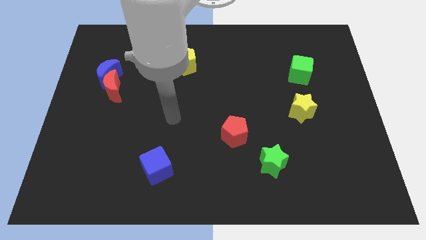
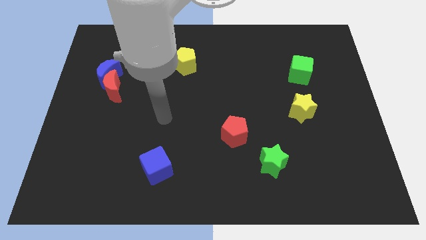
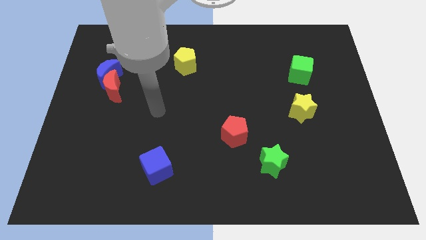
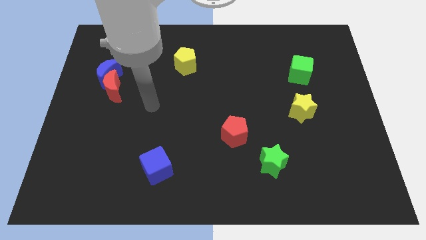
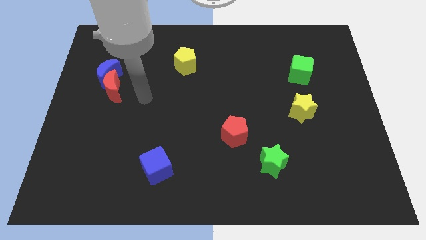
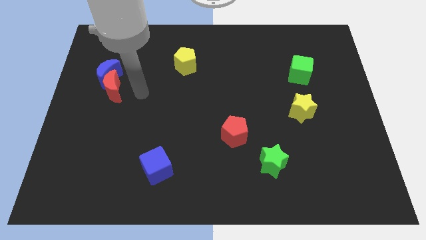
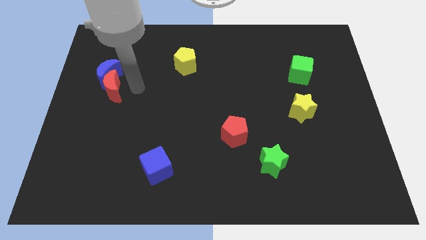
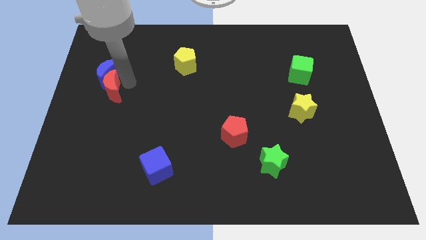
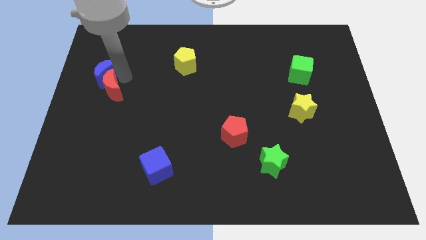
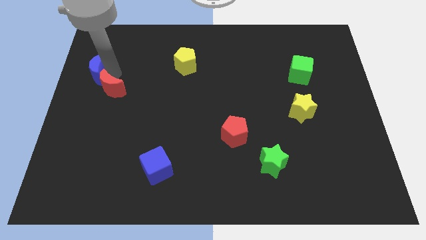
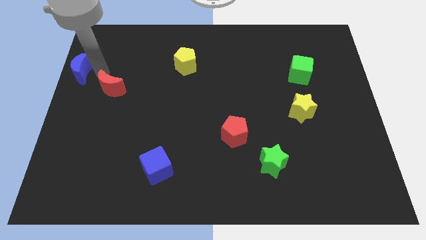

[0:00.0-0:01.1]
separate the red moon from the blue moon

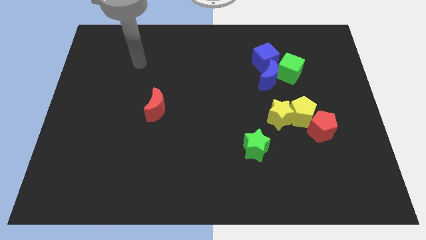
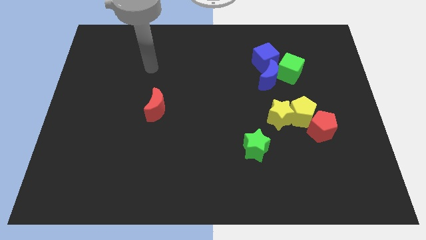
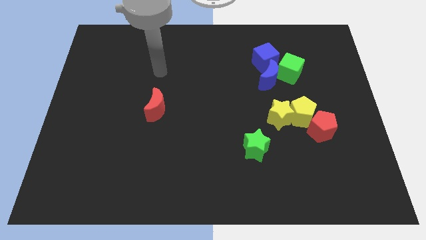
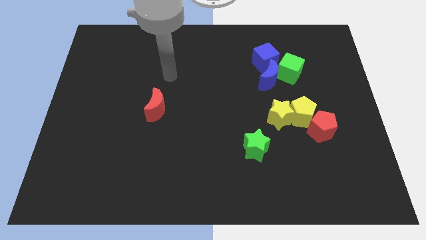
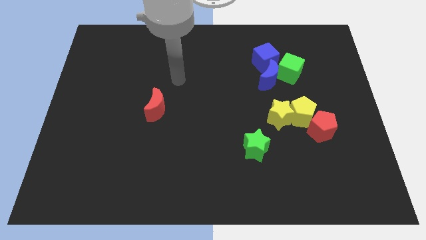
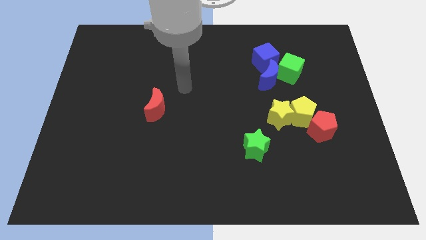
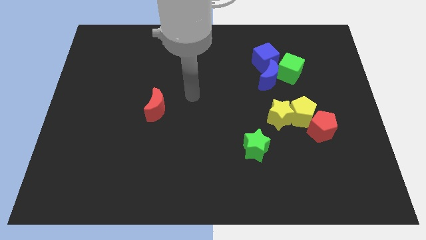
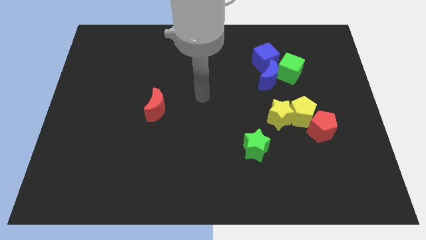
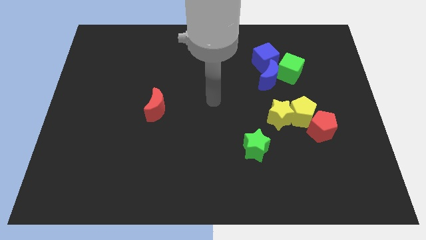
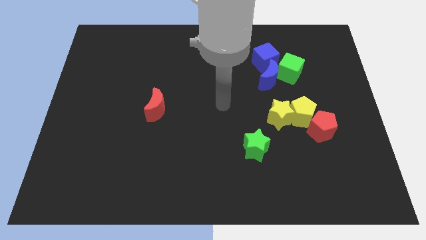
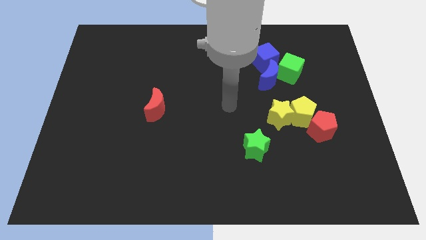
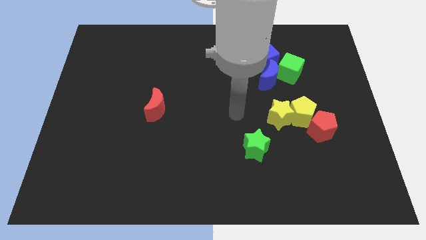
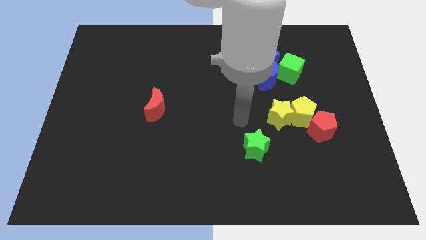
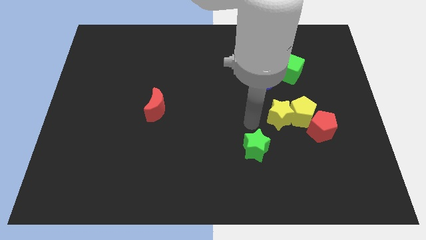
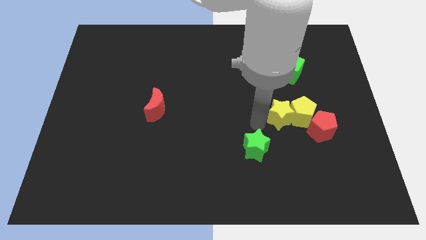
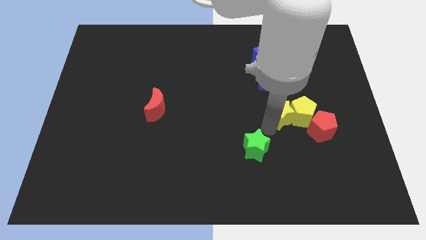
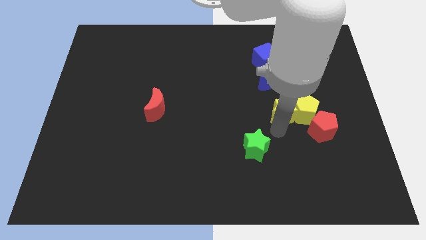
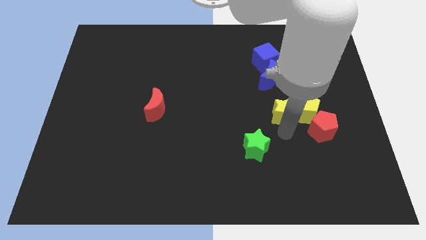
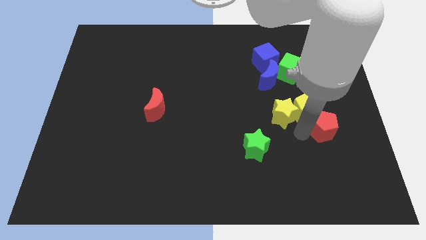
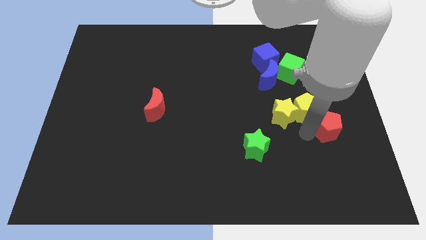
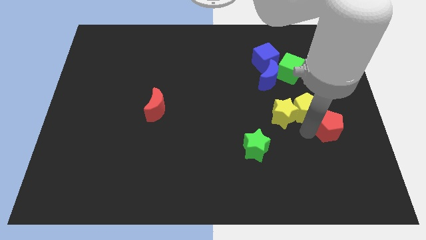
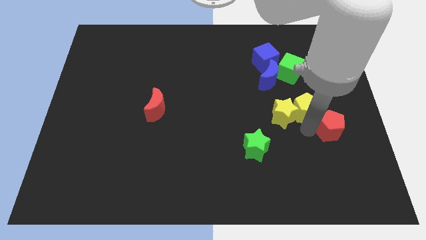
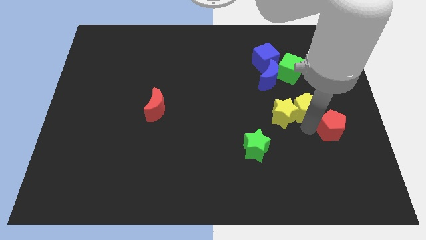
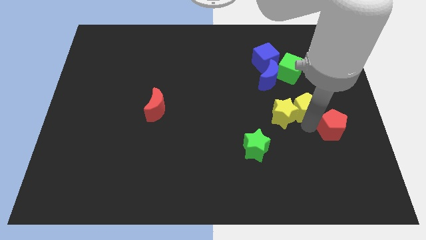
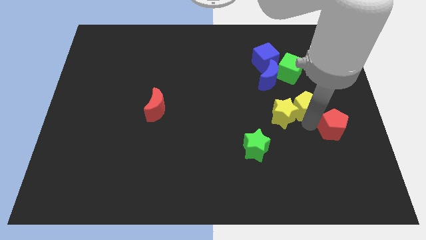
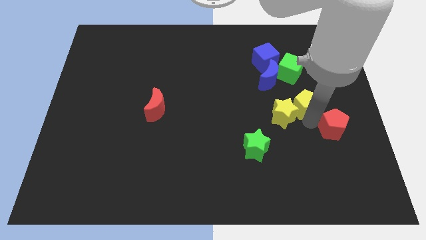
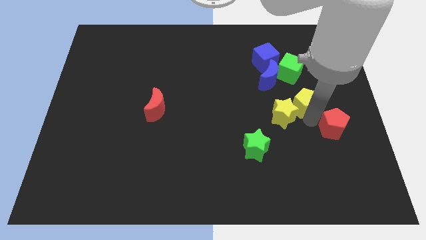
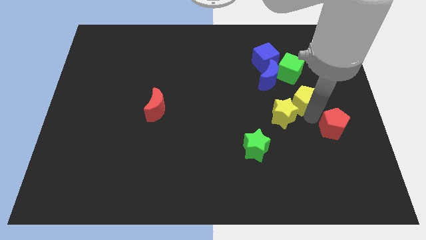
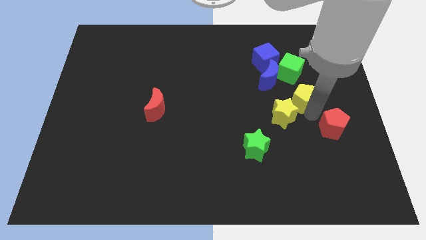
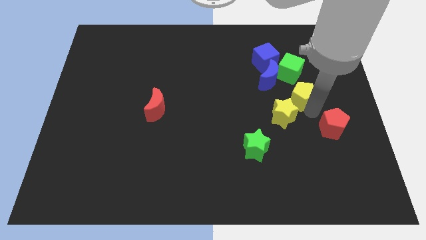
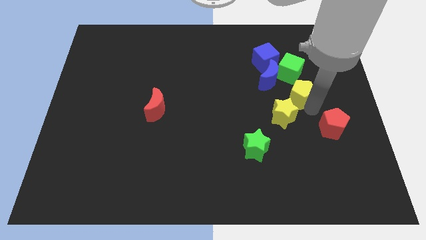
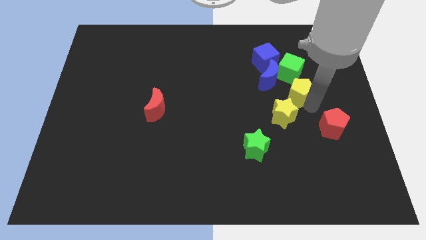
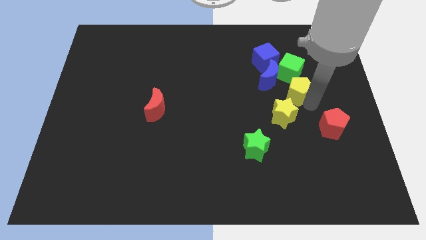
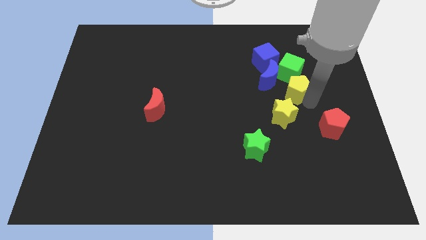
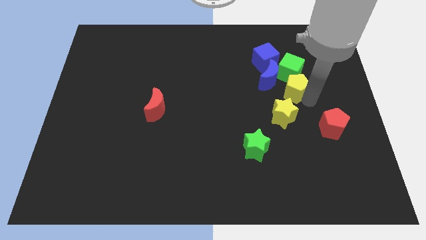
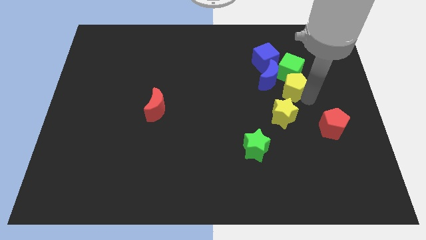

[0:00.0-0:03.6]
move the yellow pentagon away from the yellow star and red pentagon

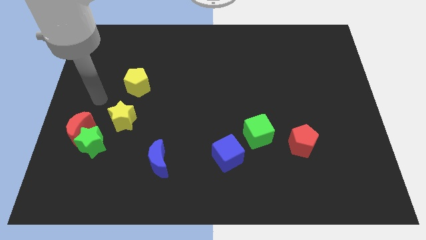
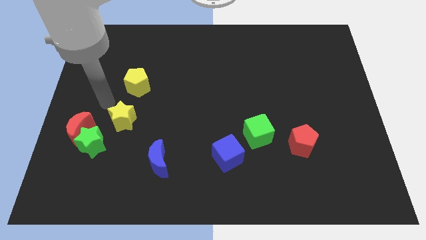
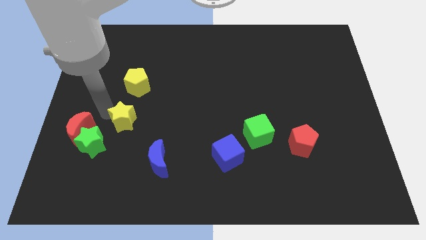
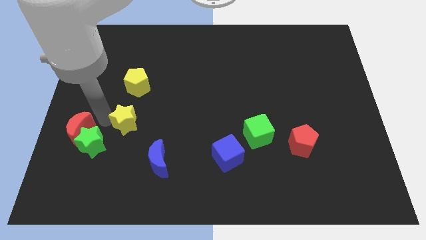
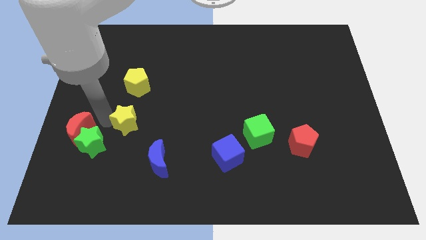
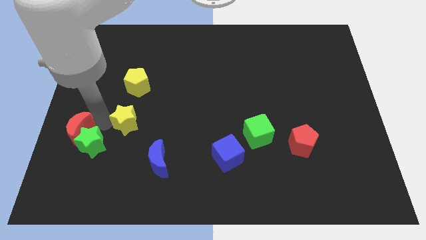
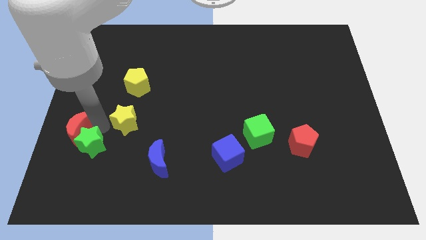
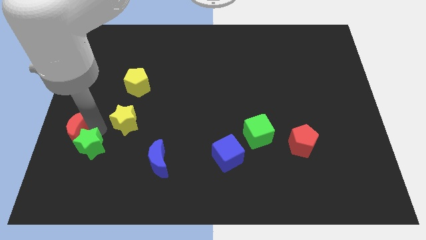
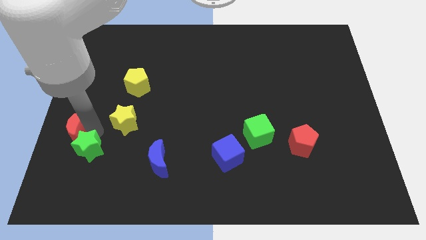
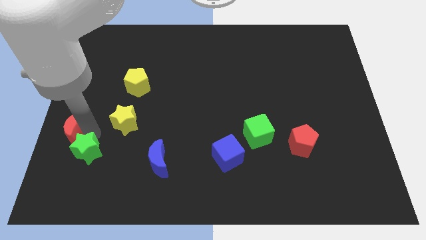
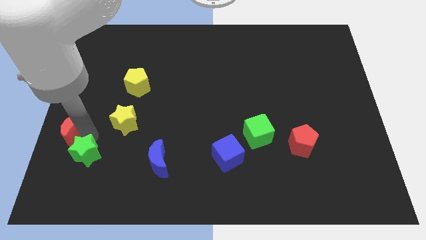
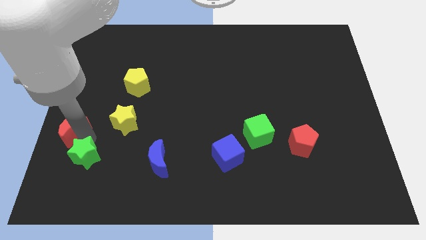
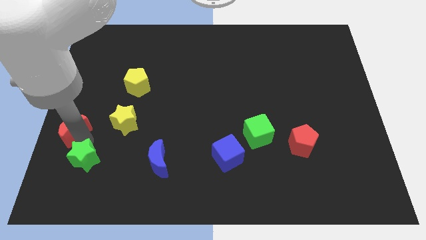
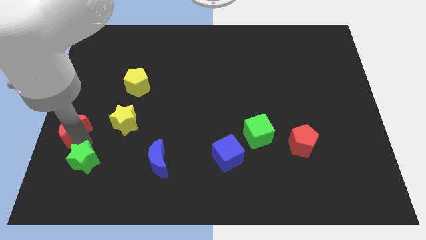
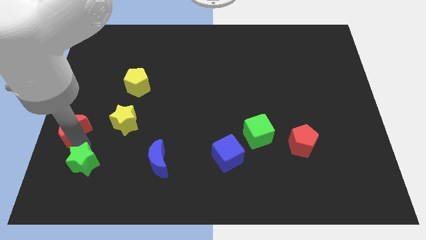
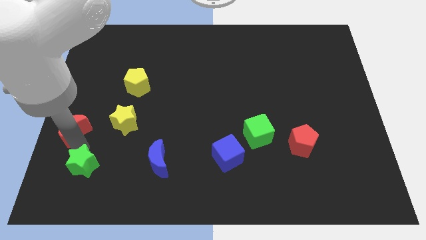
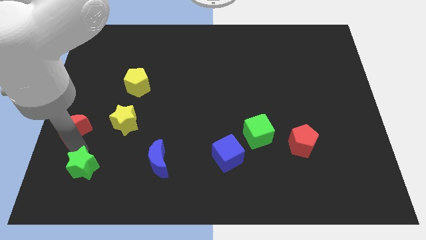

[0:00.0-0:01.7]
separate the green star from the red moon and yellow star

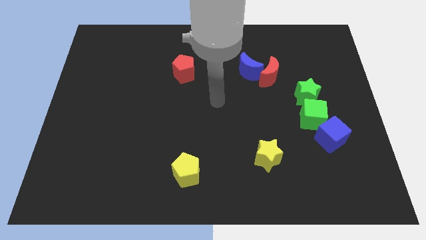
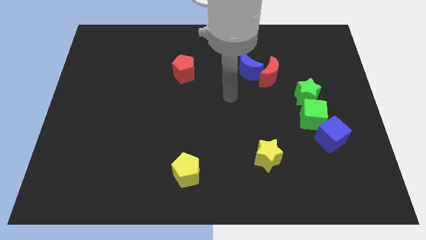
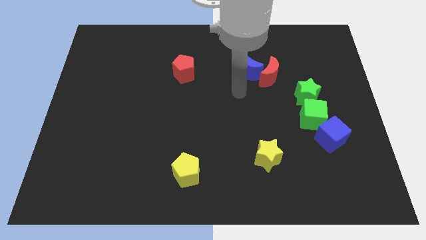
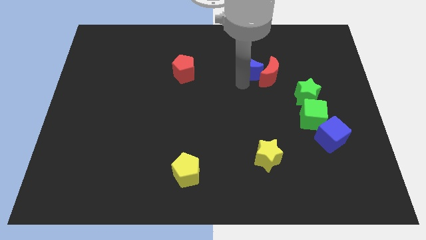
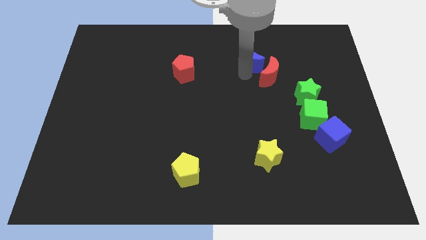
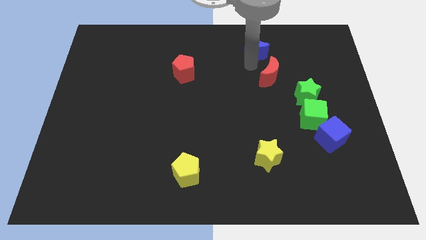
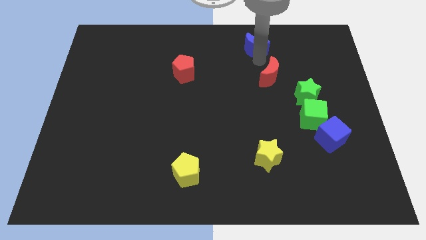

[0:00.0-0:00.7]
move the red moon away from the blue moon

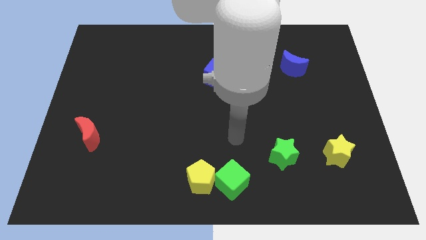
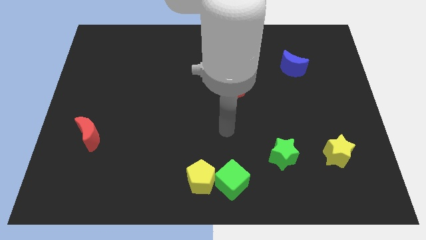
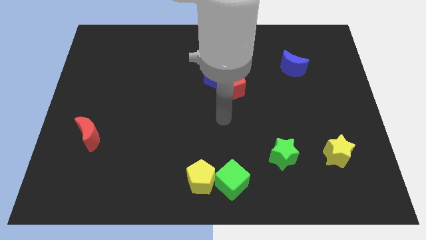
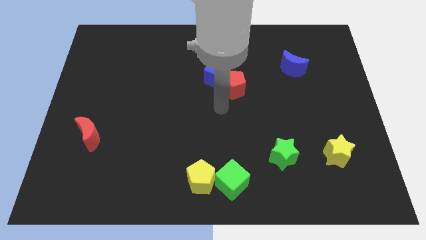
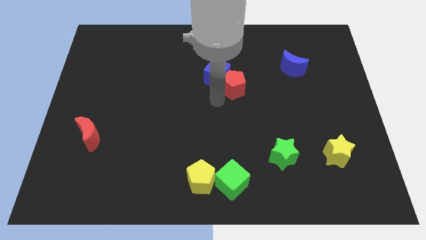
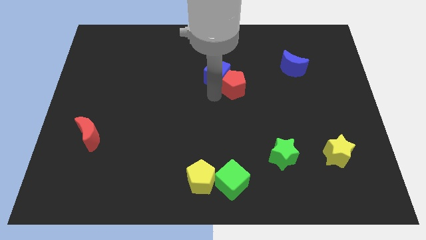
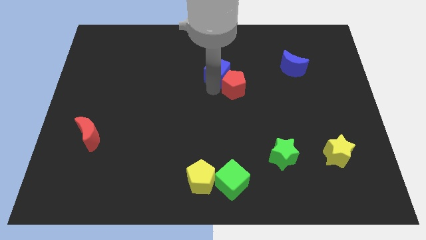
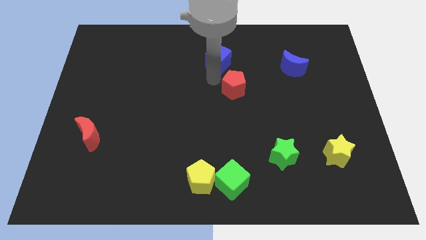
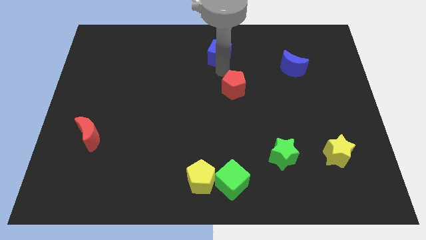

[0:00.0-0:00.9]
pull the red pentagon apart from the blue cube

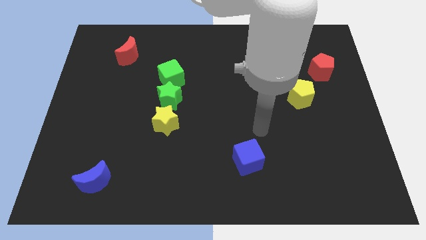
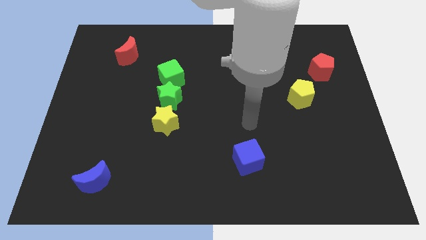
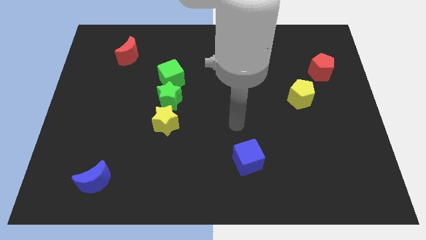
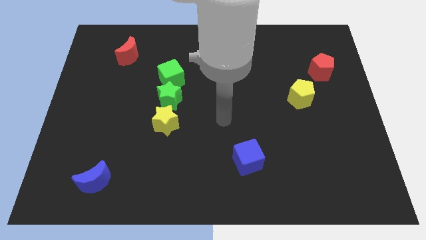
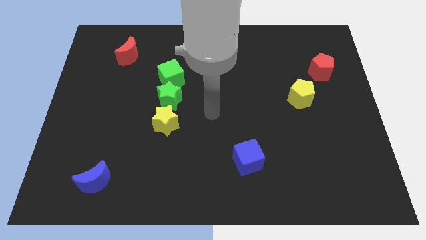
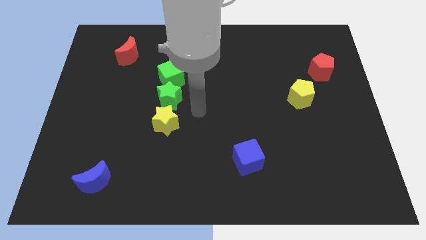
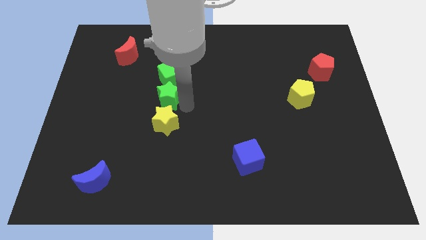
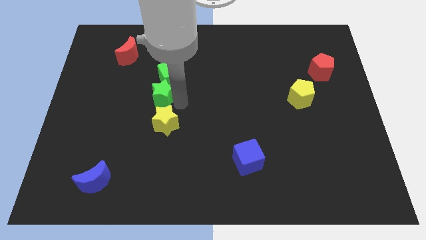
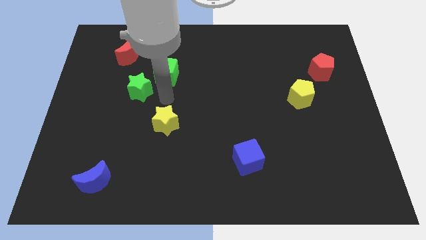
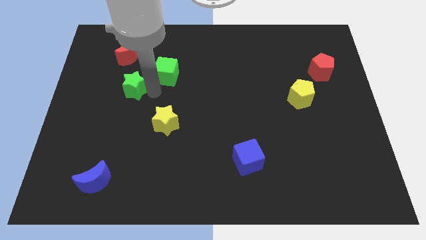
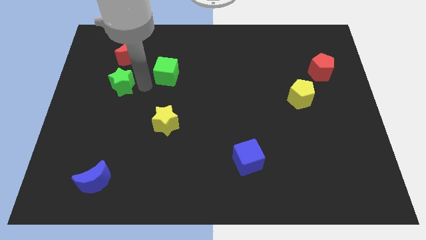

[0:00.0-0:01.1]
move the green cube away from the green star

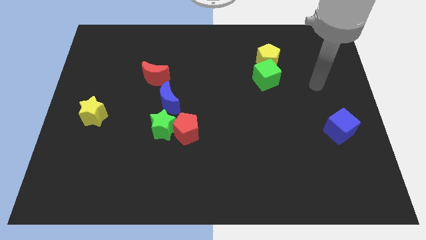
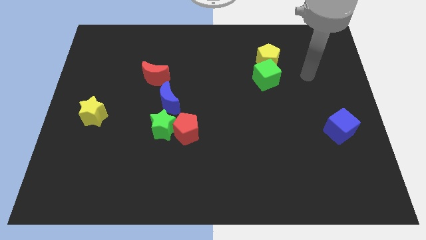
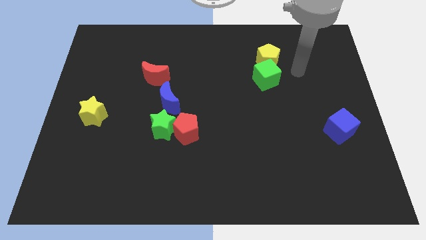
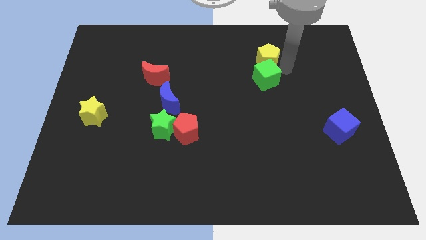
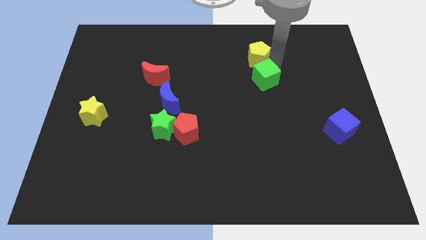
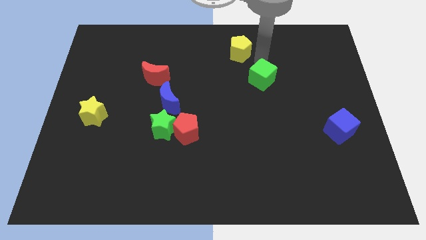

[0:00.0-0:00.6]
pull the green cube apart from the yellow pentagon
